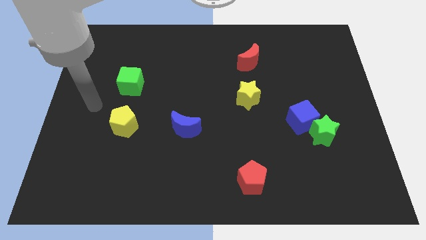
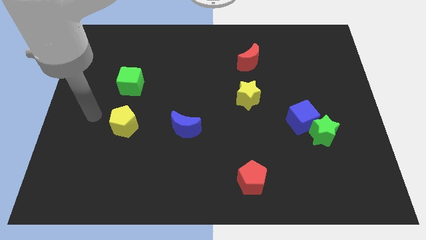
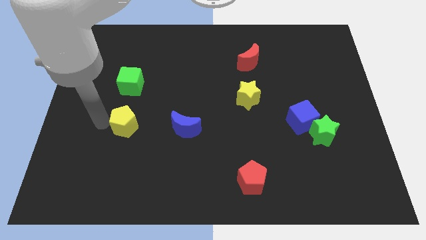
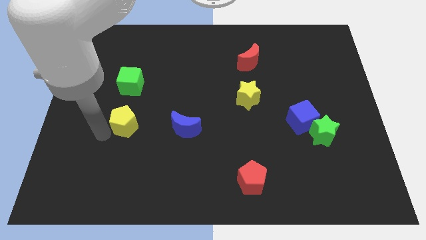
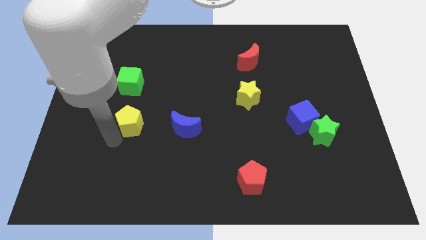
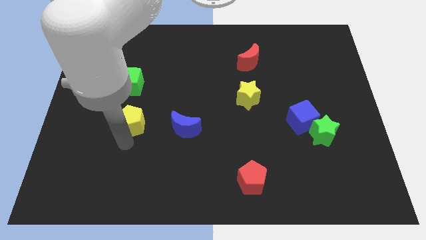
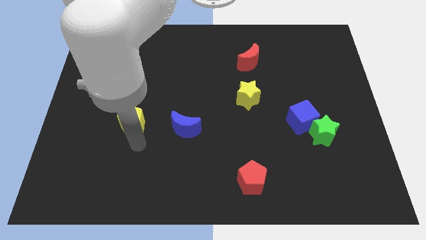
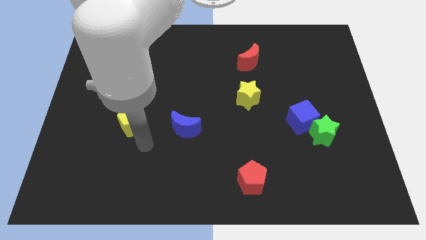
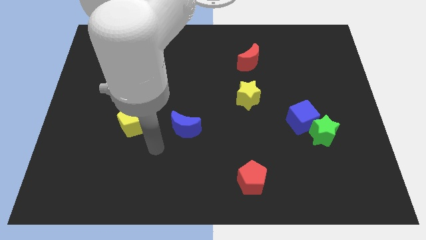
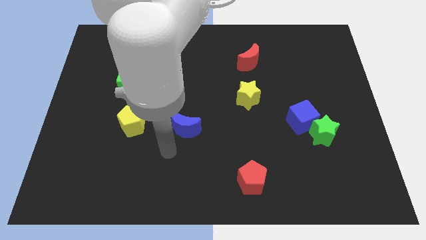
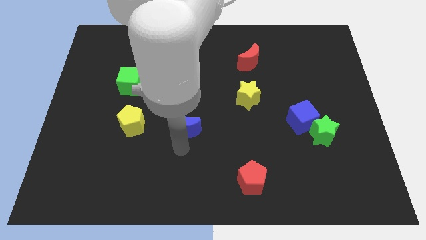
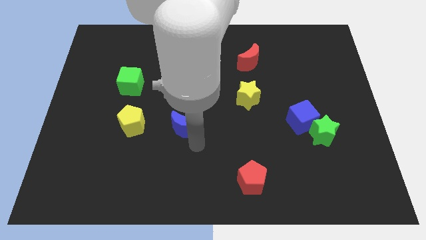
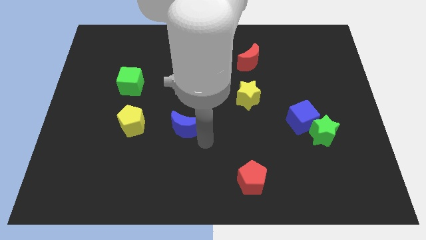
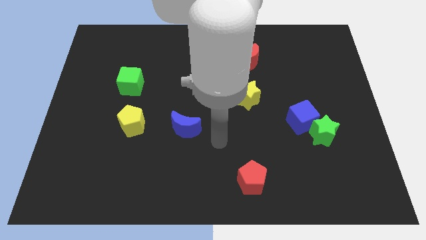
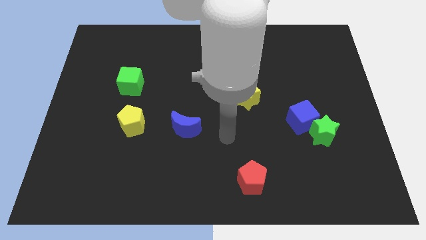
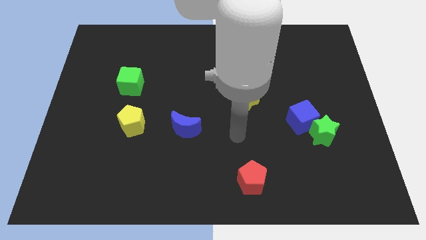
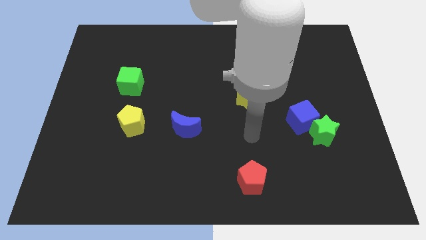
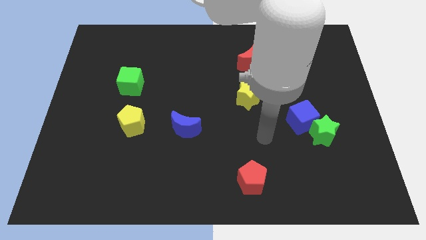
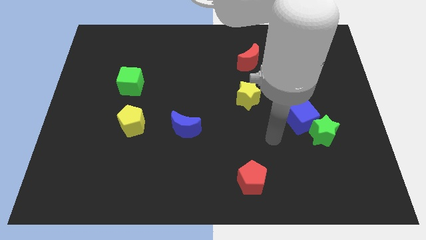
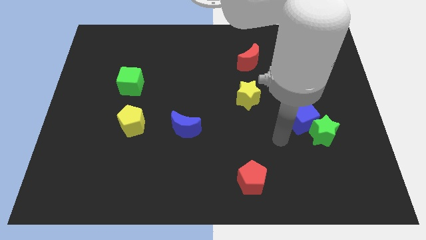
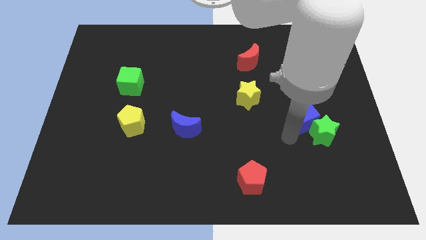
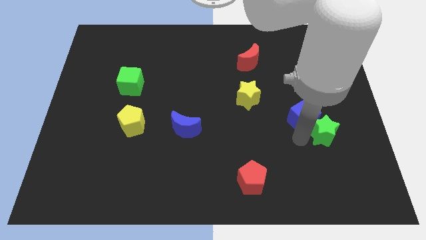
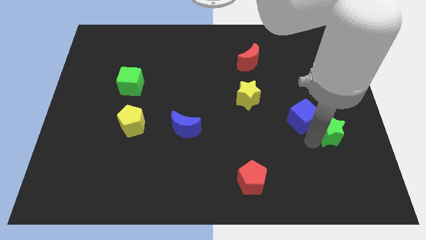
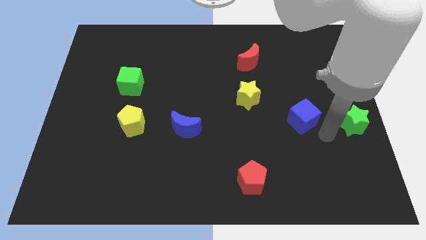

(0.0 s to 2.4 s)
move the blue cube away from the green star

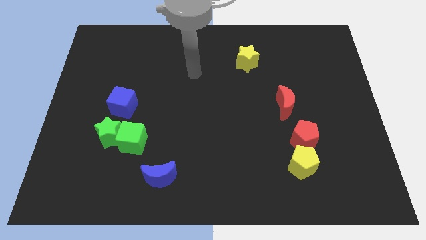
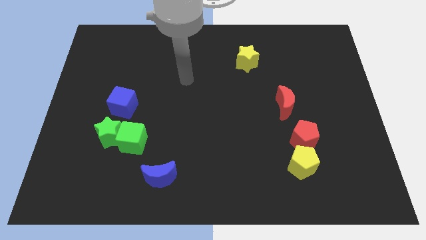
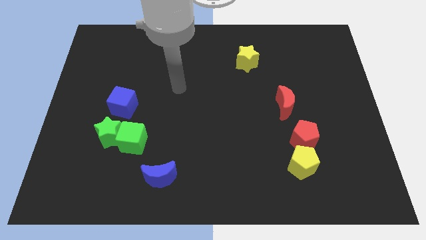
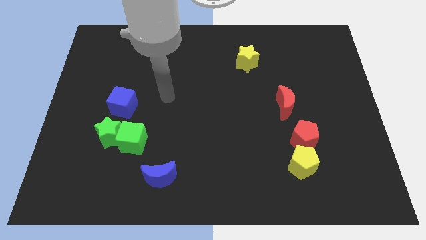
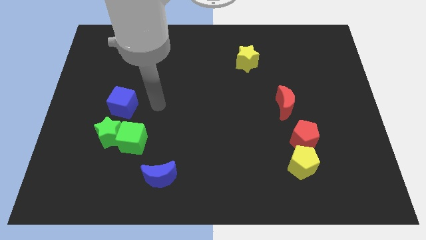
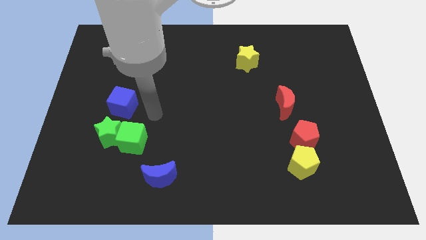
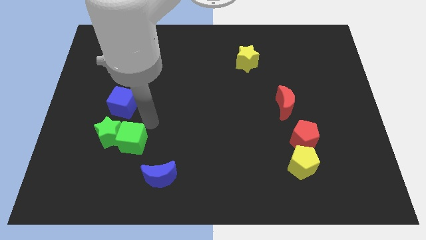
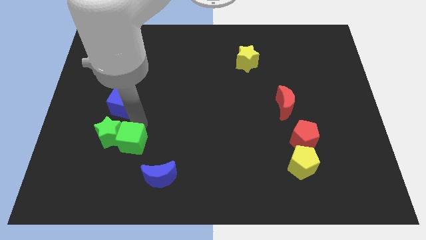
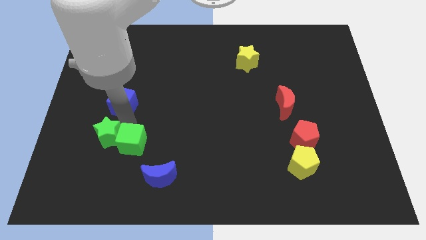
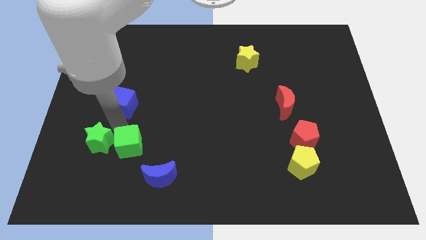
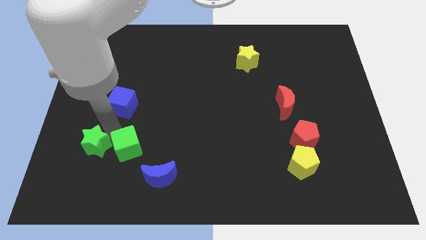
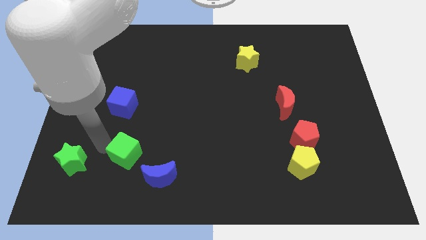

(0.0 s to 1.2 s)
pull the green cube apart from the green star

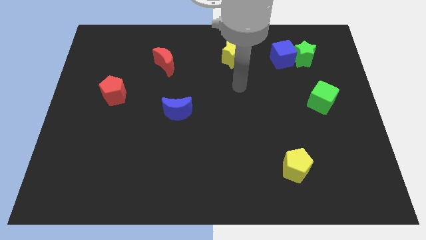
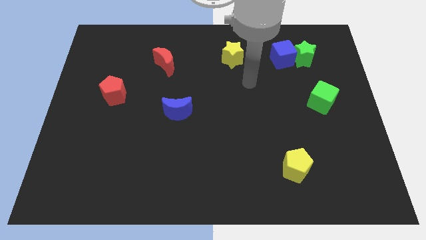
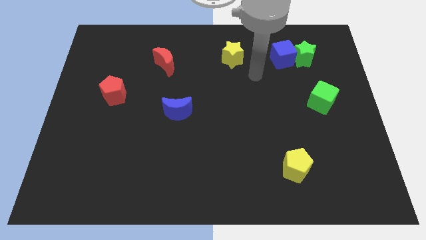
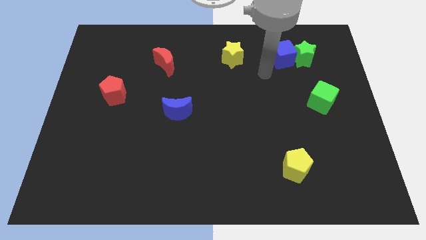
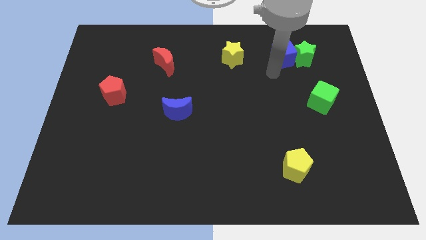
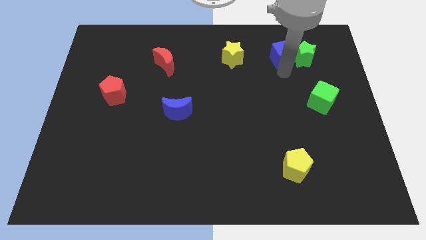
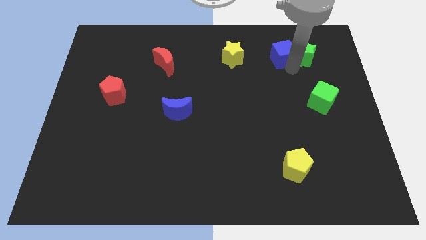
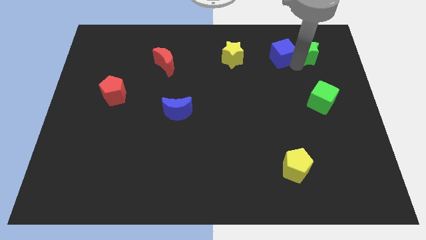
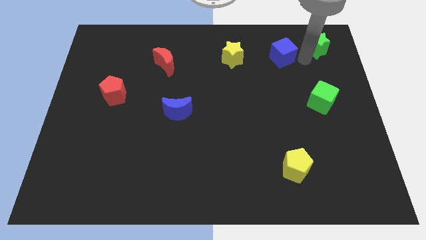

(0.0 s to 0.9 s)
pull the blue cube apart from the green star

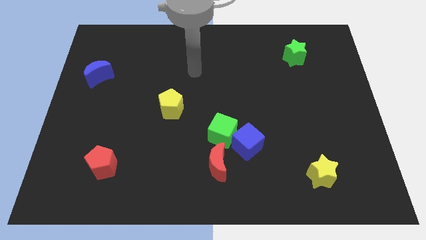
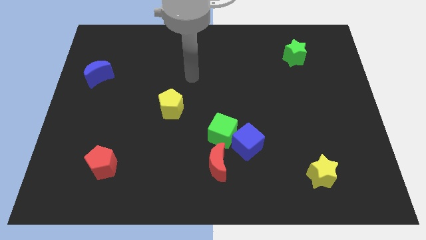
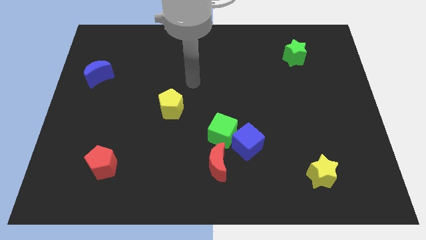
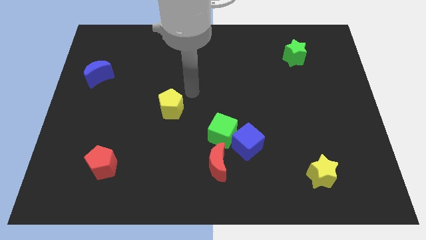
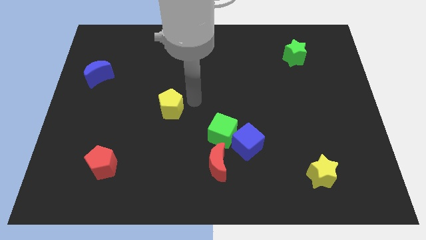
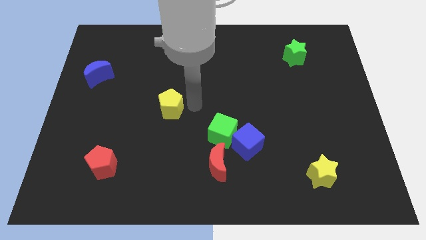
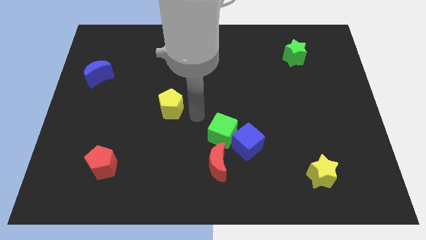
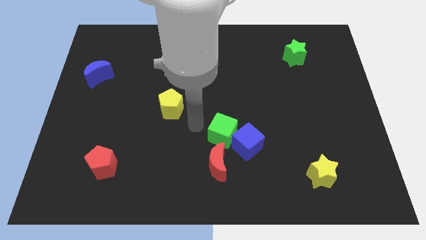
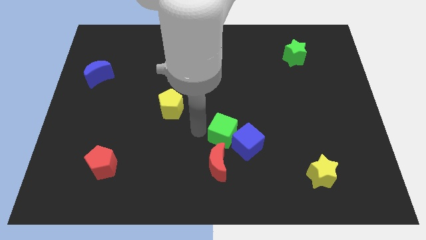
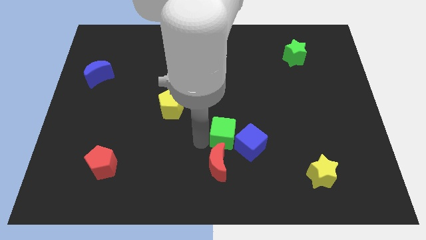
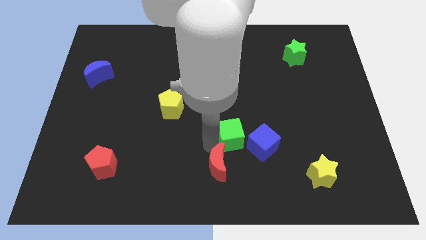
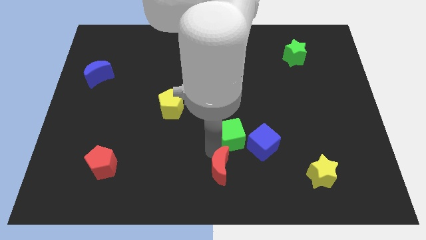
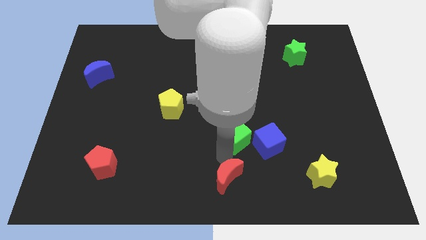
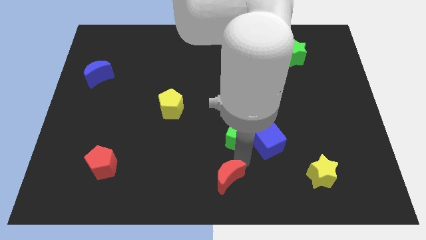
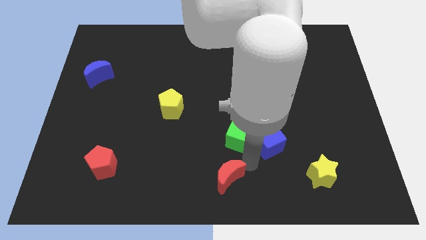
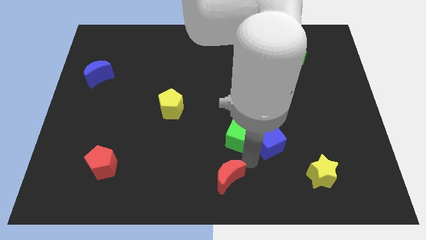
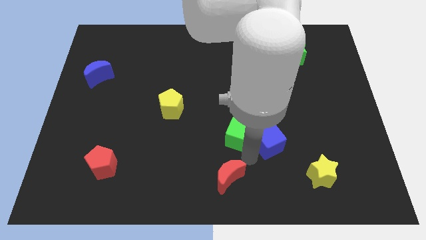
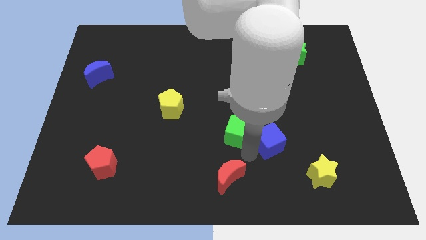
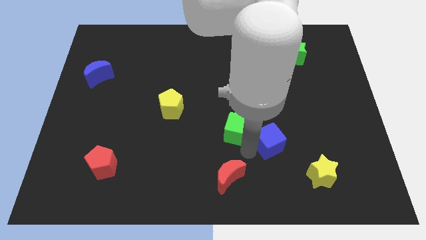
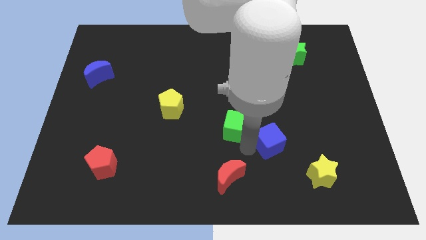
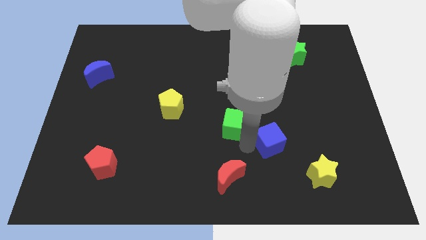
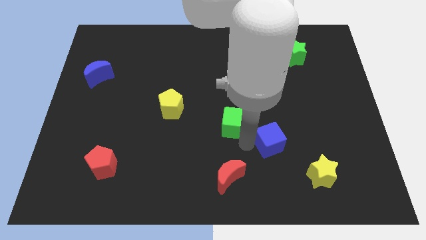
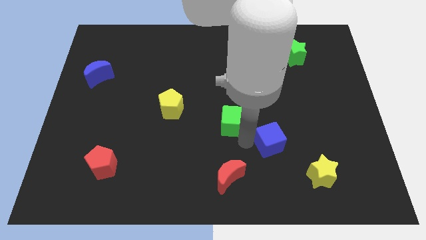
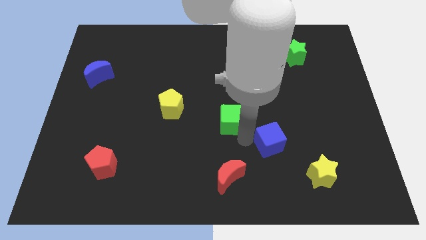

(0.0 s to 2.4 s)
separate the green cube from the blue cube and red moon

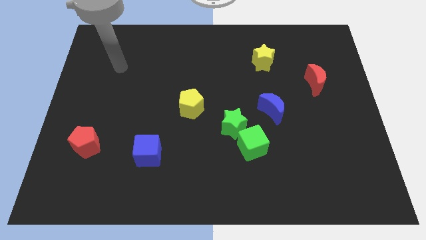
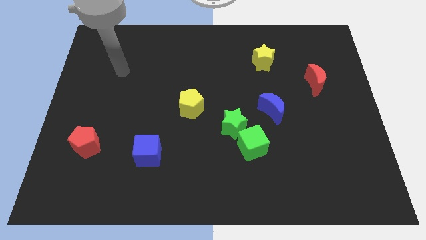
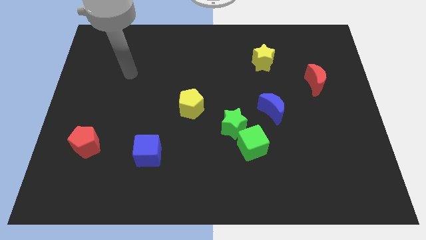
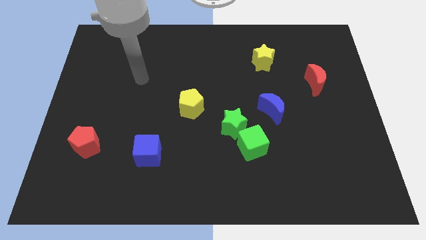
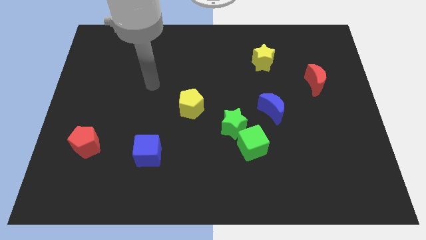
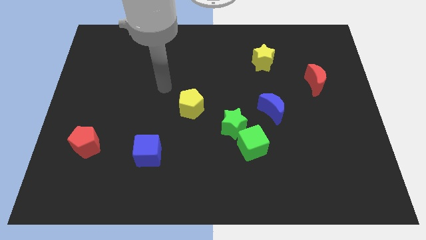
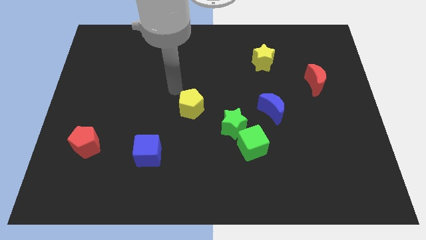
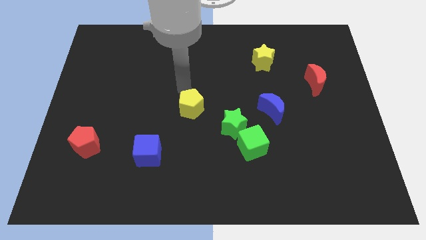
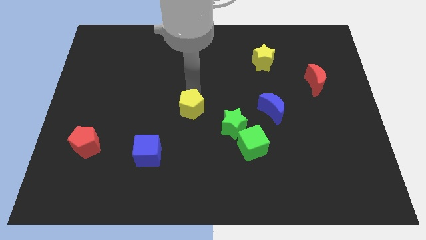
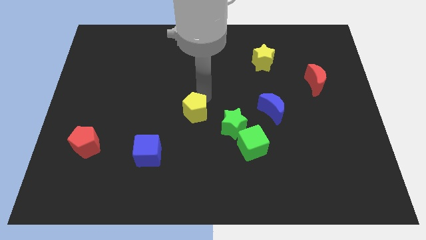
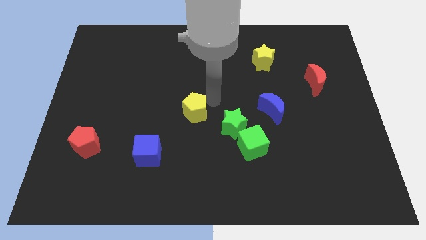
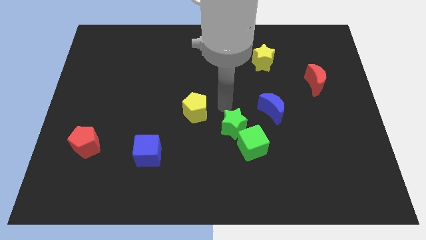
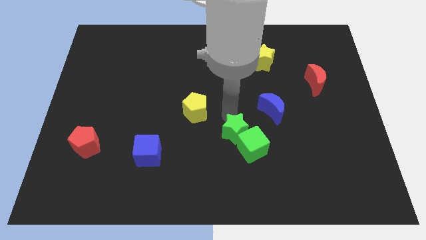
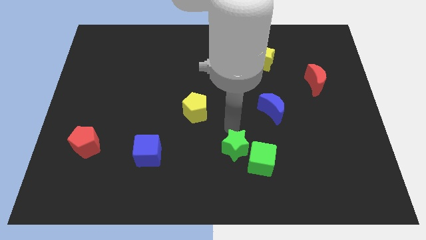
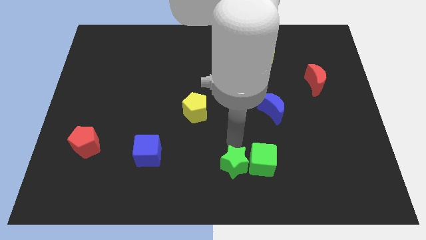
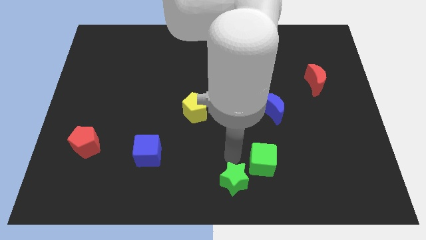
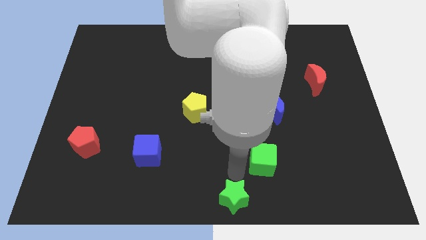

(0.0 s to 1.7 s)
separate the green cube from the green star

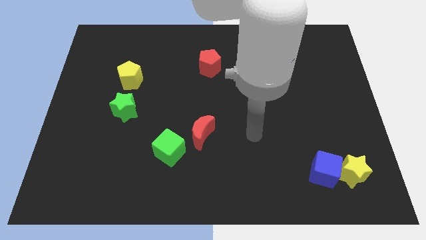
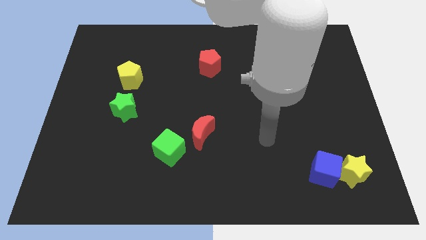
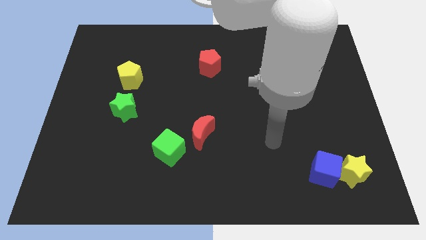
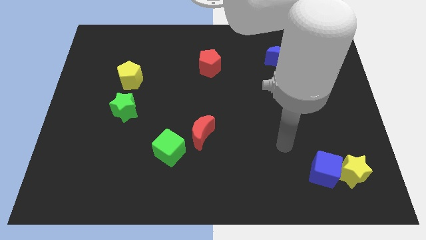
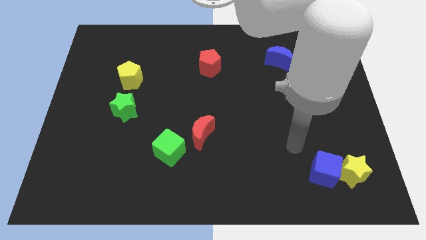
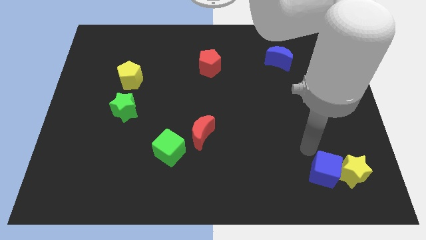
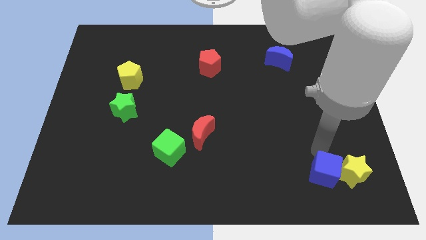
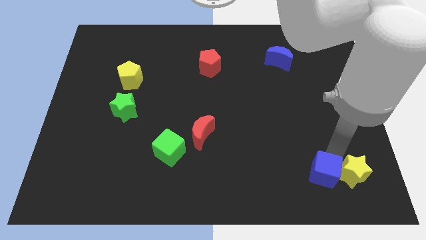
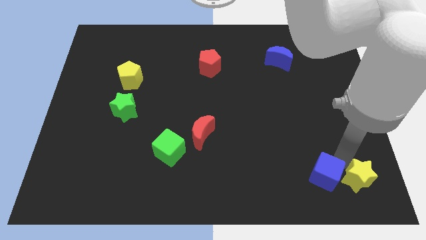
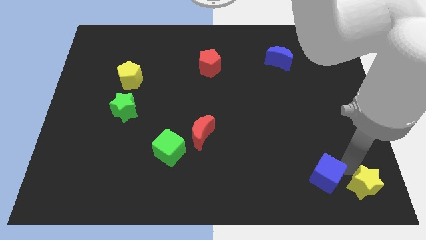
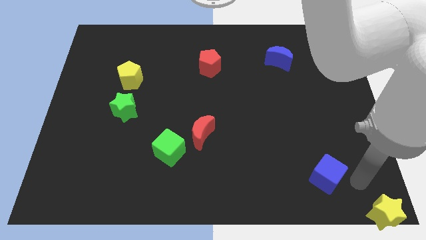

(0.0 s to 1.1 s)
move the blue cube away from the yellow star
